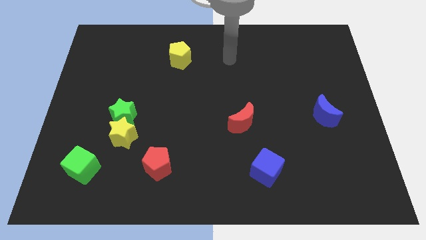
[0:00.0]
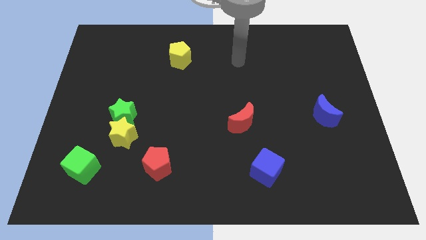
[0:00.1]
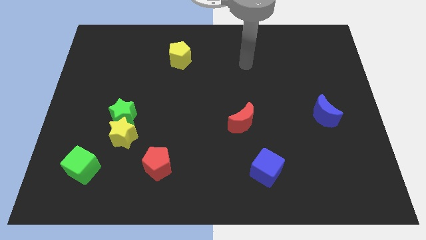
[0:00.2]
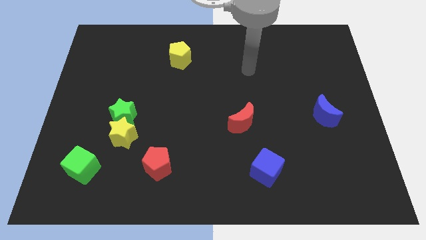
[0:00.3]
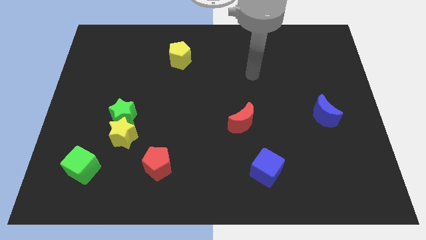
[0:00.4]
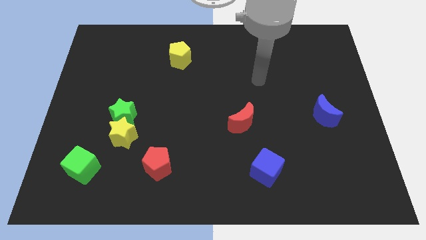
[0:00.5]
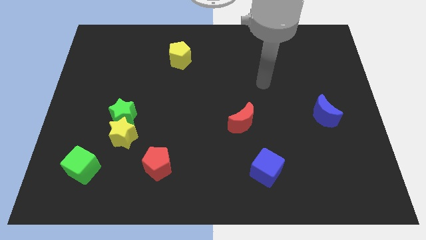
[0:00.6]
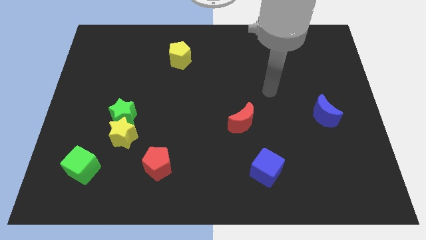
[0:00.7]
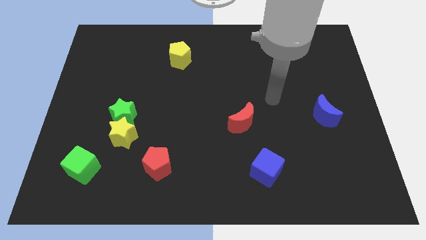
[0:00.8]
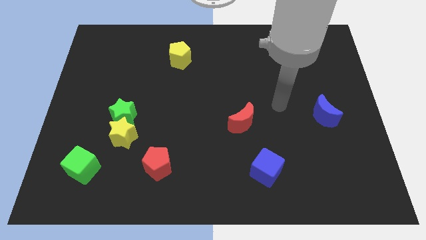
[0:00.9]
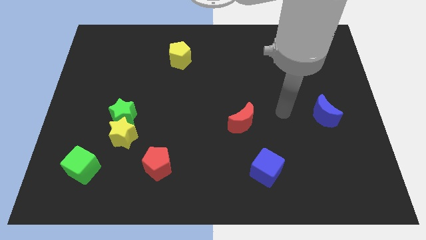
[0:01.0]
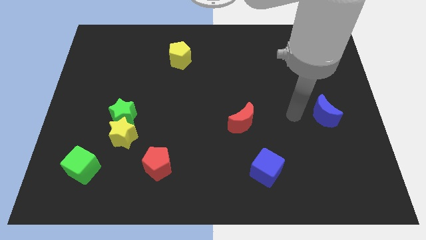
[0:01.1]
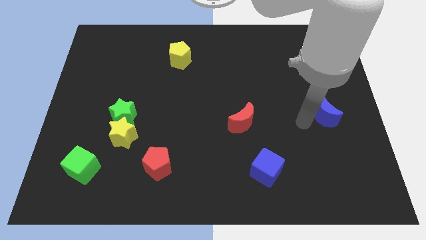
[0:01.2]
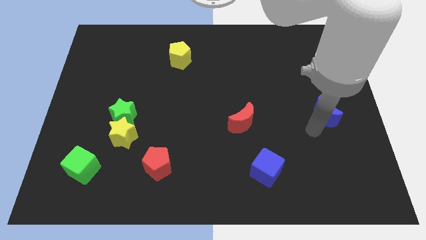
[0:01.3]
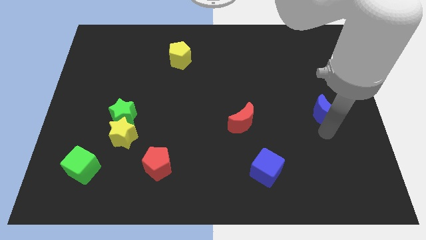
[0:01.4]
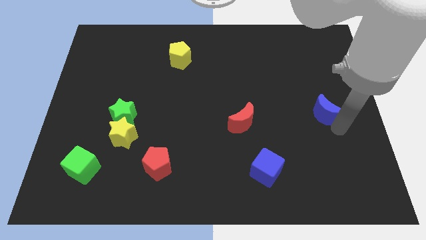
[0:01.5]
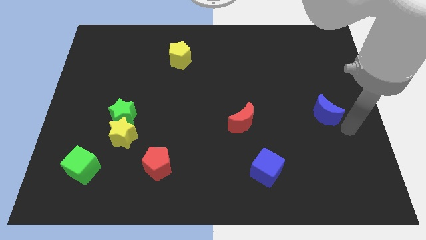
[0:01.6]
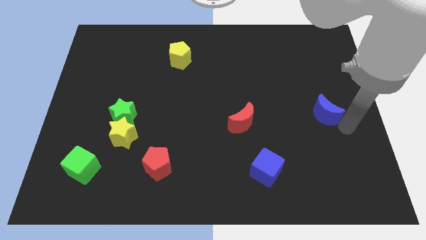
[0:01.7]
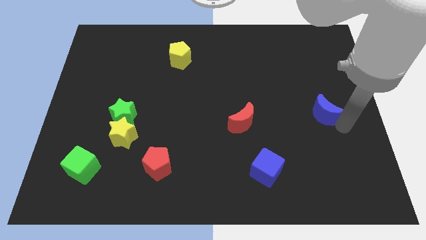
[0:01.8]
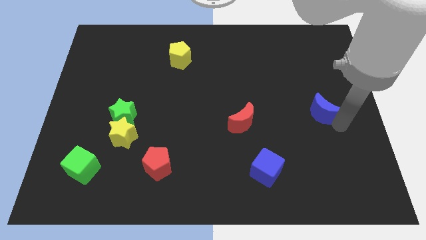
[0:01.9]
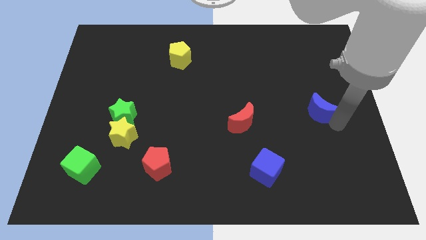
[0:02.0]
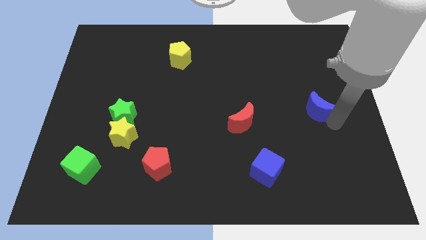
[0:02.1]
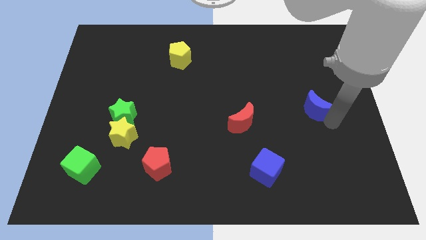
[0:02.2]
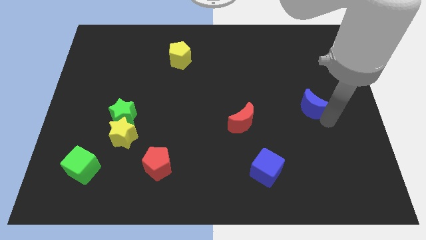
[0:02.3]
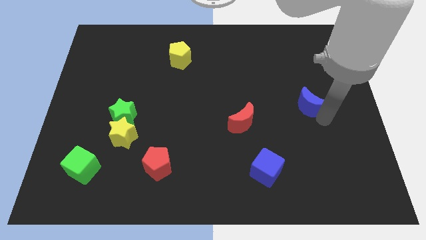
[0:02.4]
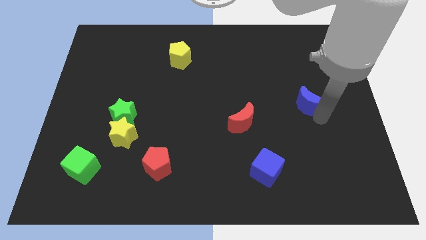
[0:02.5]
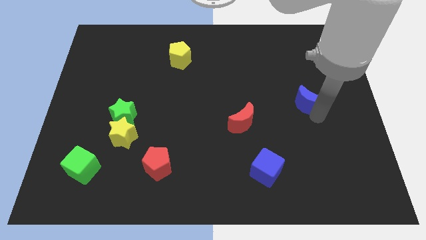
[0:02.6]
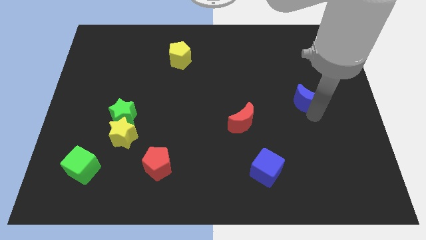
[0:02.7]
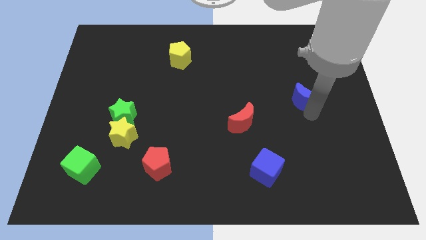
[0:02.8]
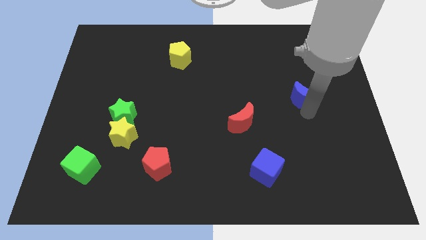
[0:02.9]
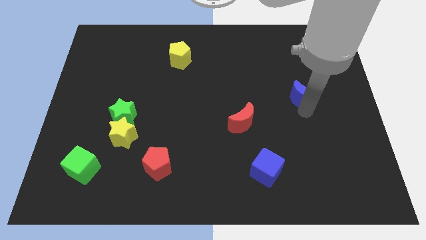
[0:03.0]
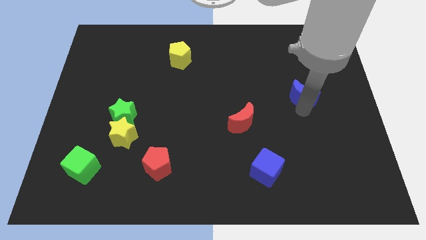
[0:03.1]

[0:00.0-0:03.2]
move the blue moon a little diagonally up and to the left

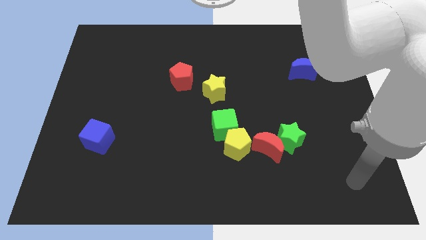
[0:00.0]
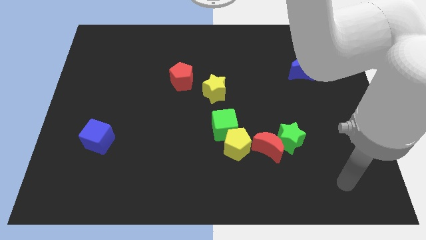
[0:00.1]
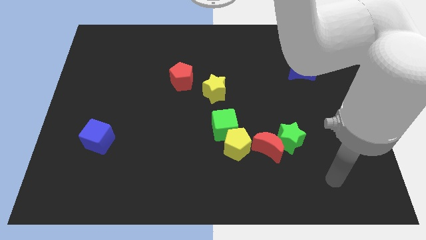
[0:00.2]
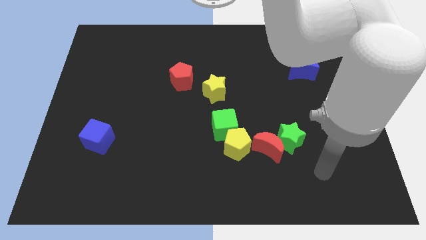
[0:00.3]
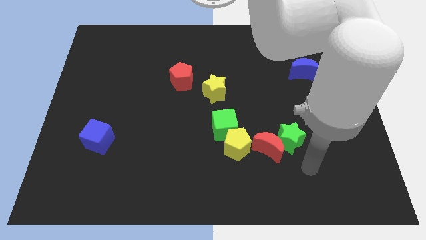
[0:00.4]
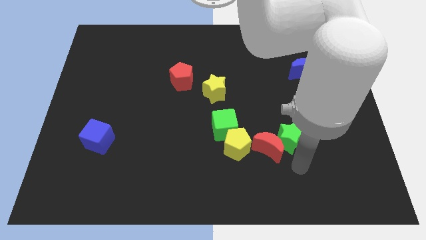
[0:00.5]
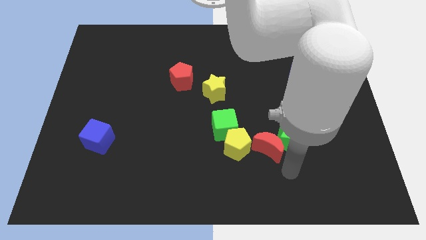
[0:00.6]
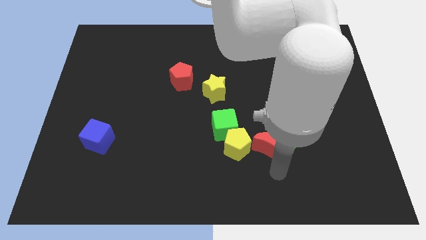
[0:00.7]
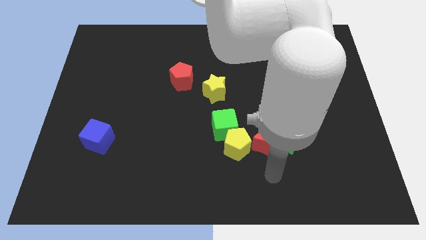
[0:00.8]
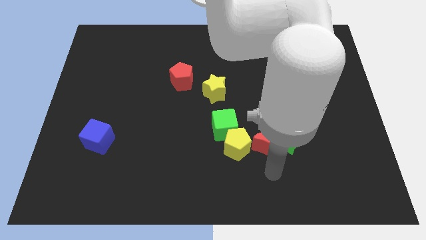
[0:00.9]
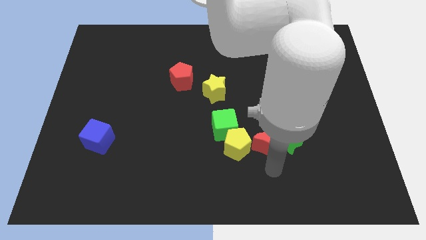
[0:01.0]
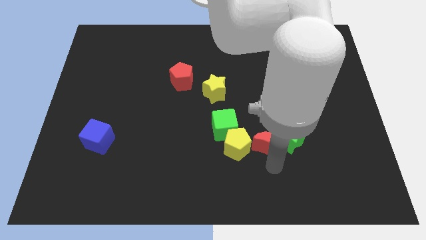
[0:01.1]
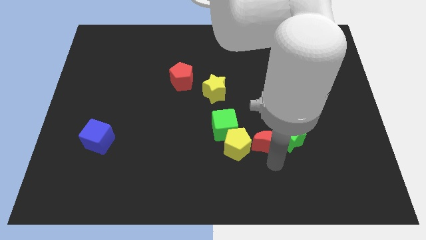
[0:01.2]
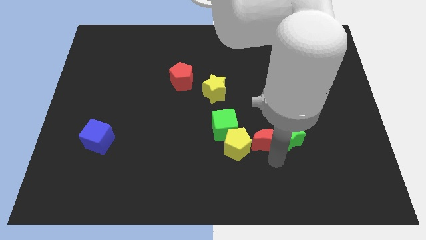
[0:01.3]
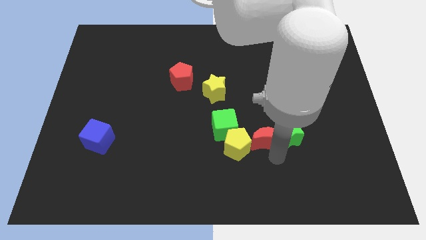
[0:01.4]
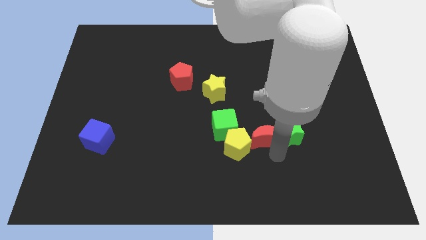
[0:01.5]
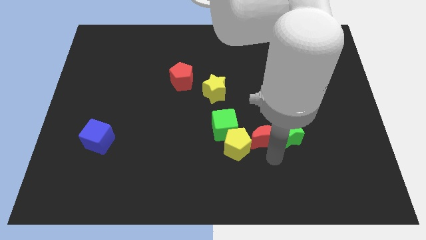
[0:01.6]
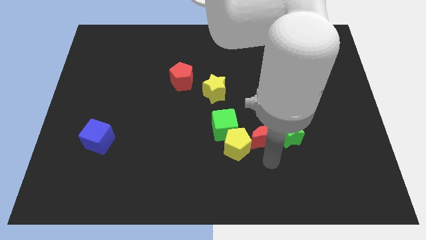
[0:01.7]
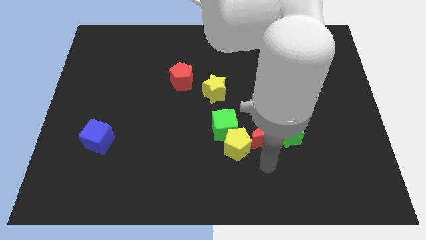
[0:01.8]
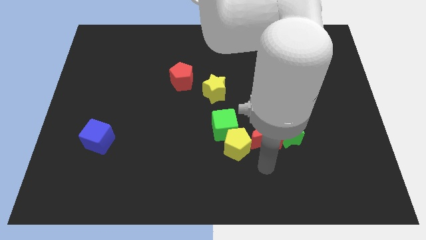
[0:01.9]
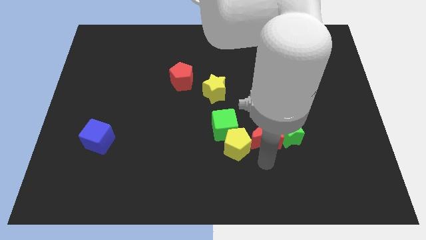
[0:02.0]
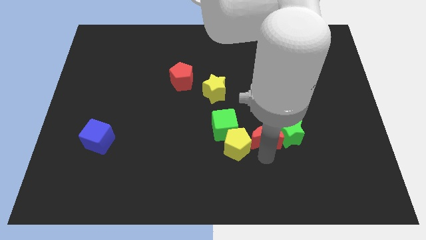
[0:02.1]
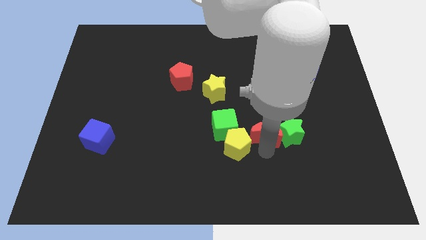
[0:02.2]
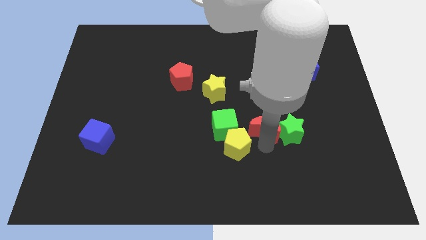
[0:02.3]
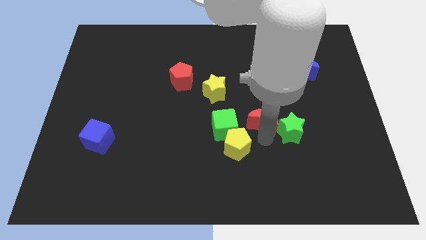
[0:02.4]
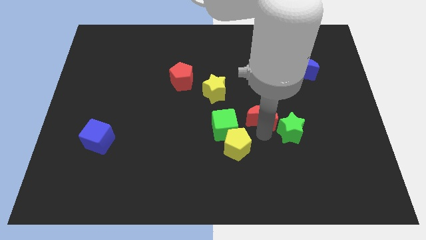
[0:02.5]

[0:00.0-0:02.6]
slide the red moon somewhat up

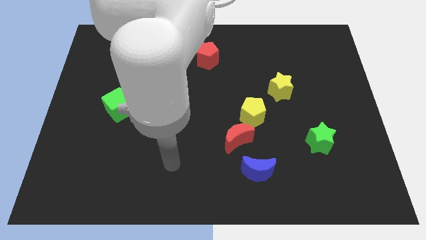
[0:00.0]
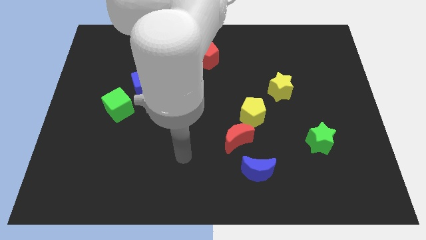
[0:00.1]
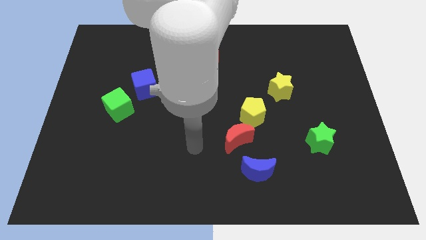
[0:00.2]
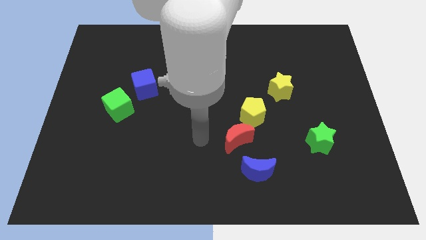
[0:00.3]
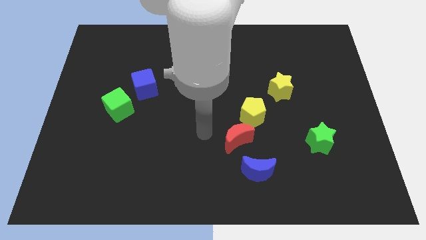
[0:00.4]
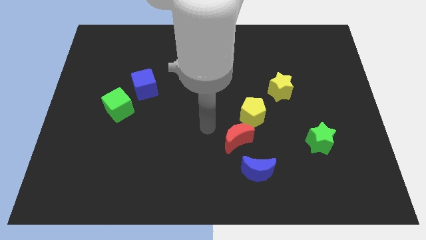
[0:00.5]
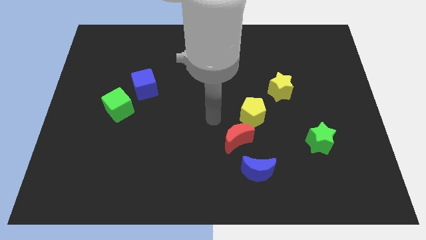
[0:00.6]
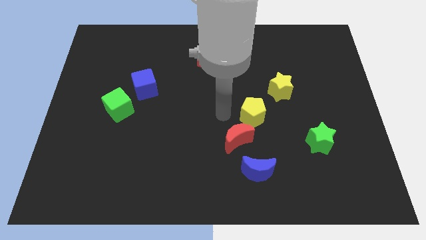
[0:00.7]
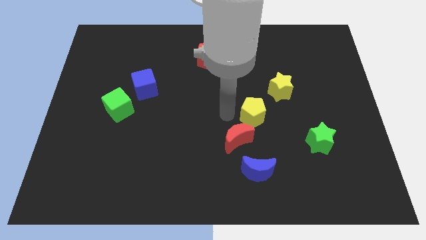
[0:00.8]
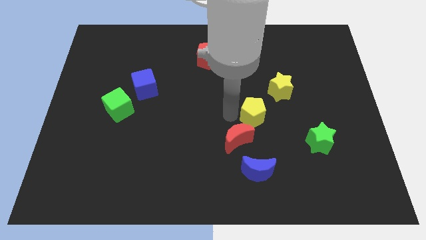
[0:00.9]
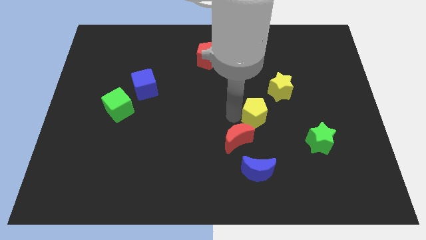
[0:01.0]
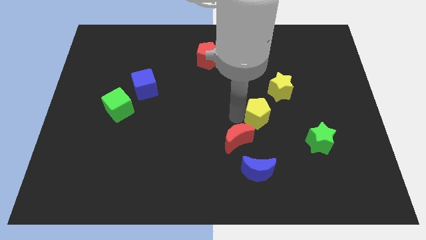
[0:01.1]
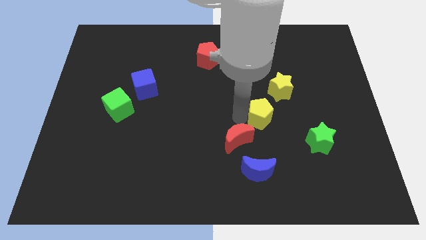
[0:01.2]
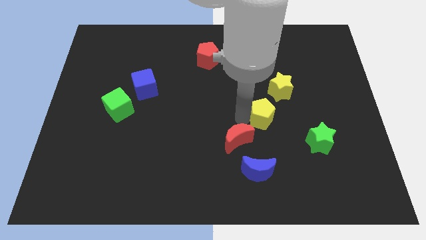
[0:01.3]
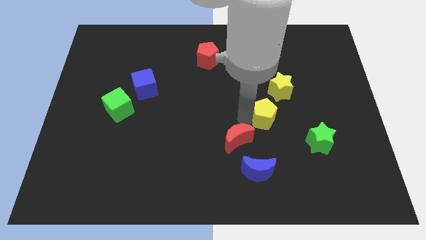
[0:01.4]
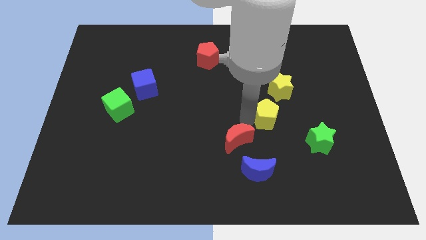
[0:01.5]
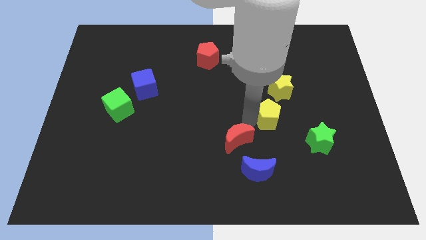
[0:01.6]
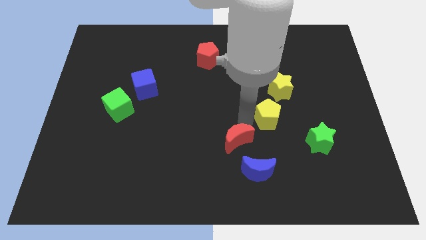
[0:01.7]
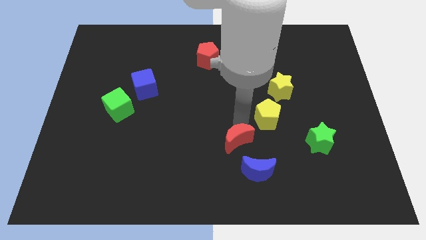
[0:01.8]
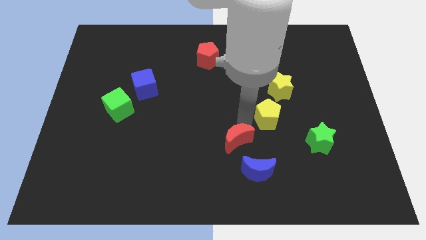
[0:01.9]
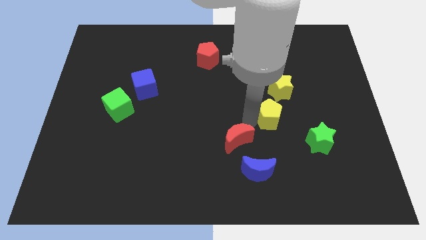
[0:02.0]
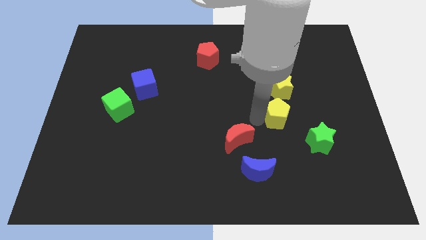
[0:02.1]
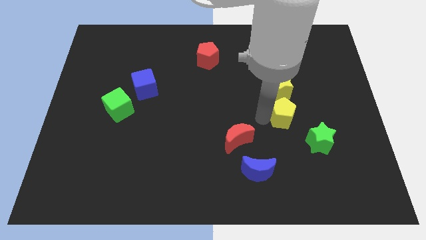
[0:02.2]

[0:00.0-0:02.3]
slightly push the yellow pentagon right

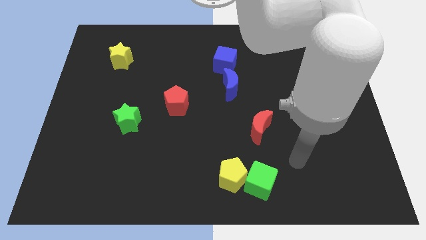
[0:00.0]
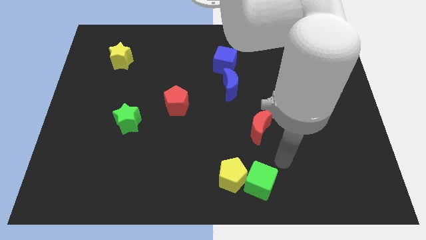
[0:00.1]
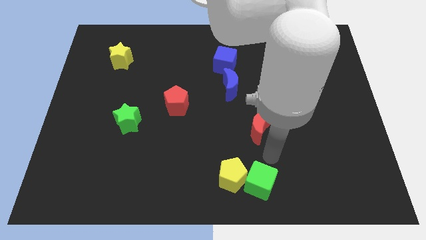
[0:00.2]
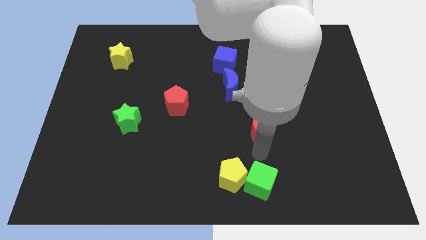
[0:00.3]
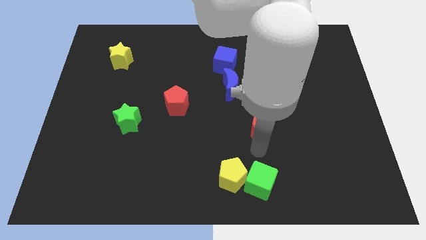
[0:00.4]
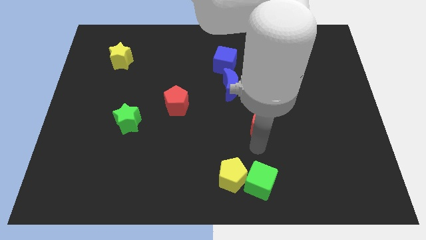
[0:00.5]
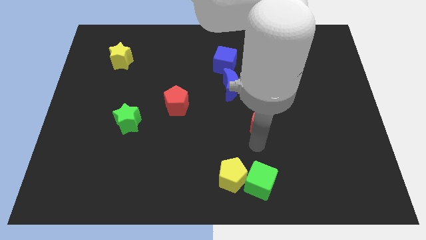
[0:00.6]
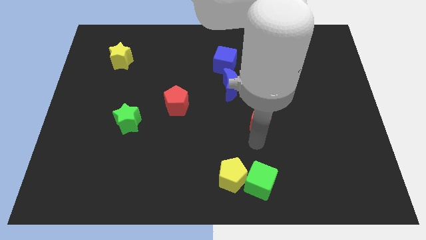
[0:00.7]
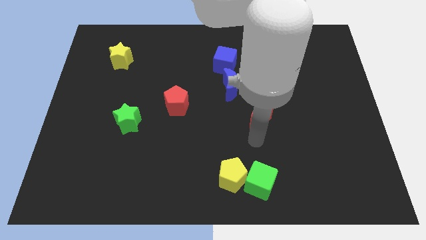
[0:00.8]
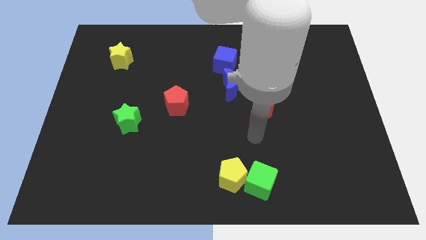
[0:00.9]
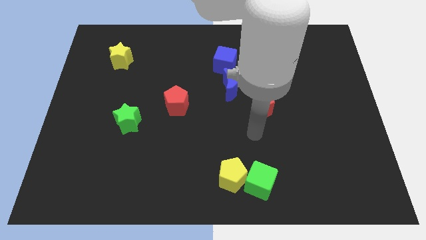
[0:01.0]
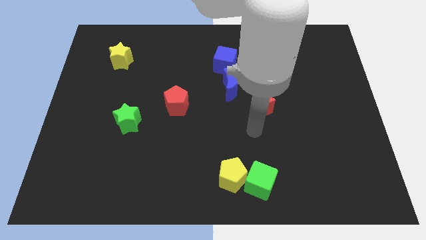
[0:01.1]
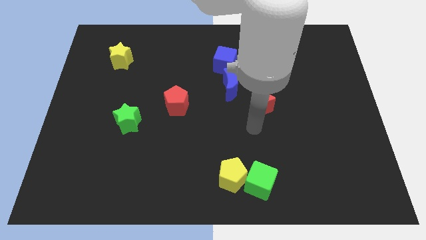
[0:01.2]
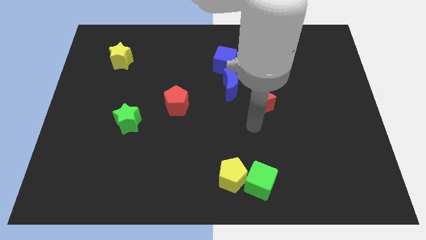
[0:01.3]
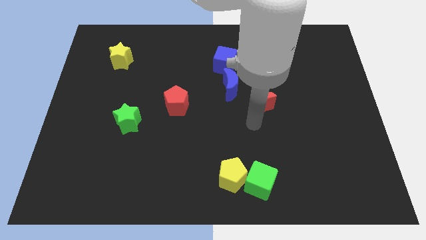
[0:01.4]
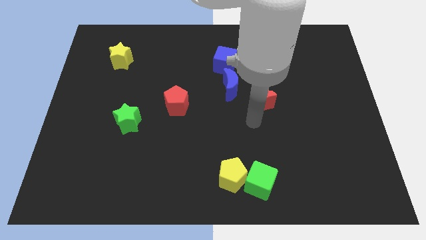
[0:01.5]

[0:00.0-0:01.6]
move the red moon upwards somewhat
